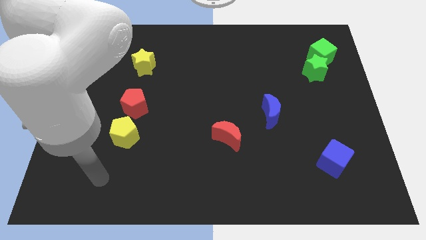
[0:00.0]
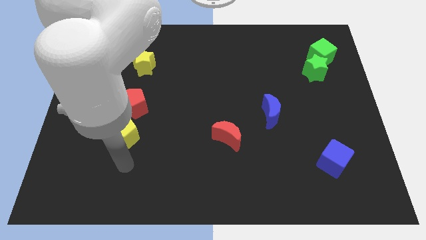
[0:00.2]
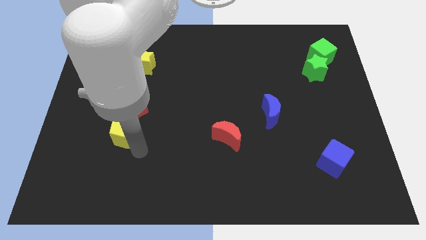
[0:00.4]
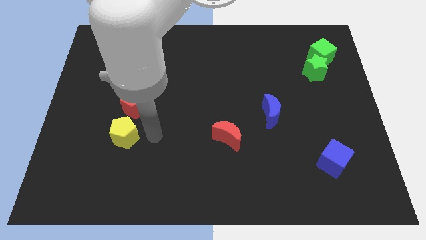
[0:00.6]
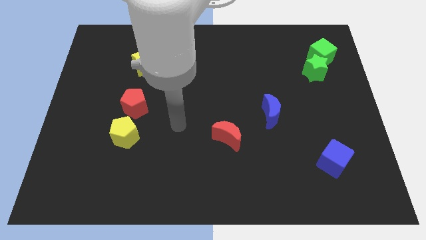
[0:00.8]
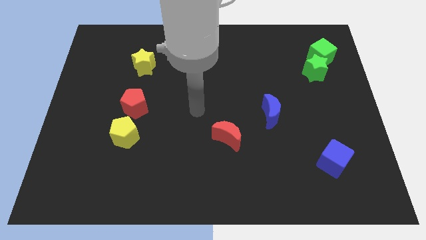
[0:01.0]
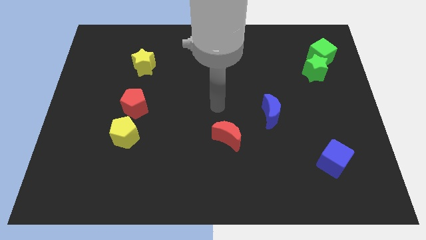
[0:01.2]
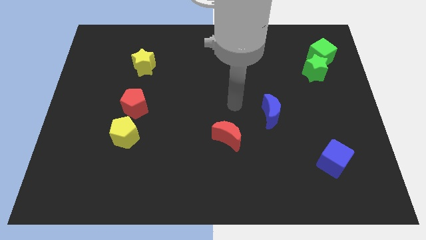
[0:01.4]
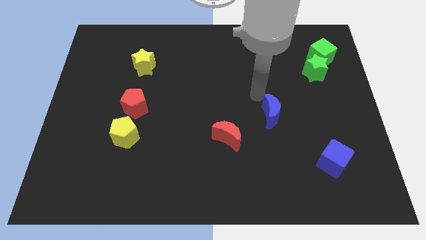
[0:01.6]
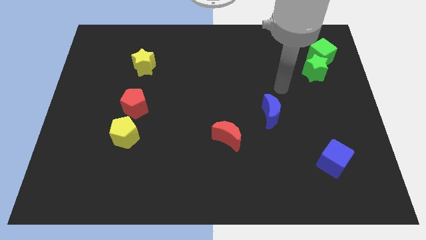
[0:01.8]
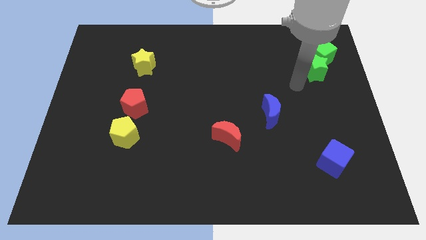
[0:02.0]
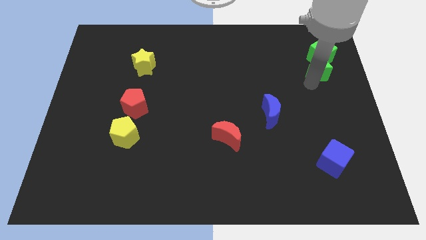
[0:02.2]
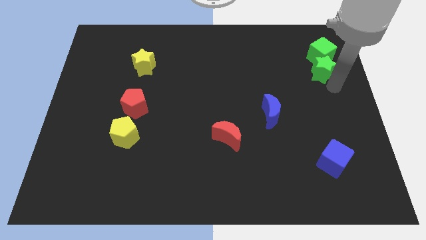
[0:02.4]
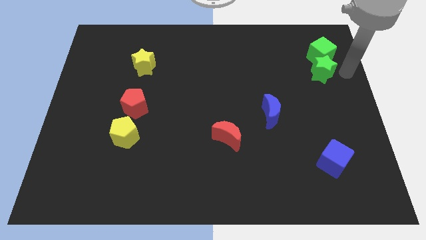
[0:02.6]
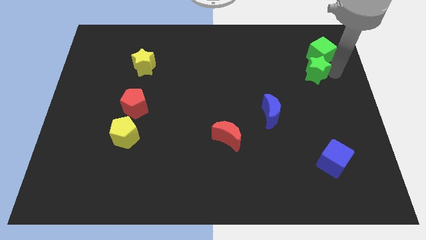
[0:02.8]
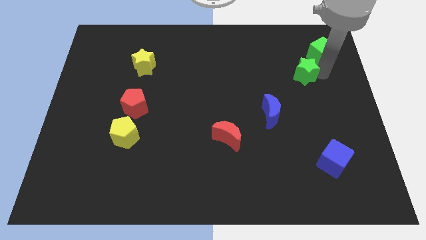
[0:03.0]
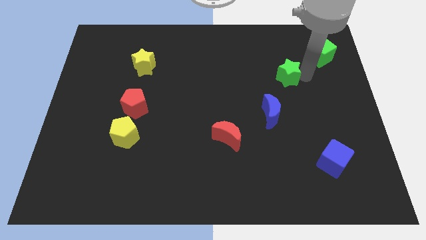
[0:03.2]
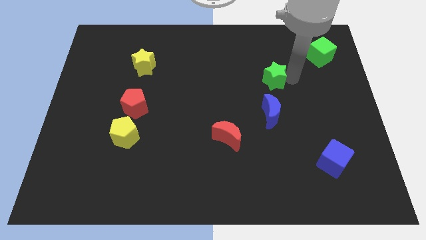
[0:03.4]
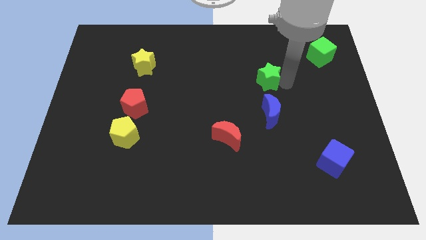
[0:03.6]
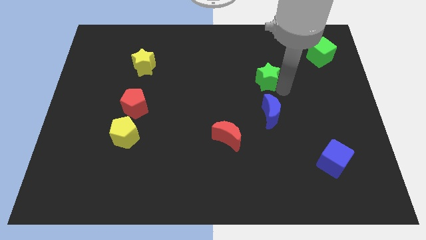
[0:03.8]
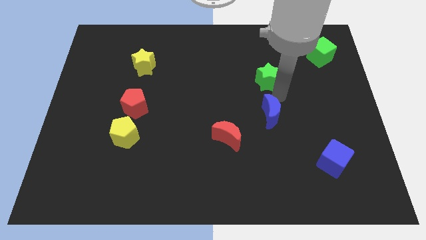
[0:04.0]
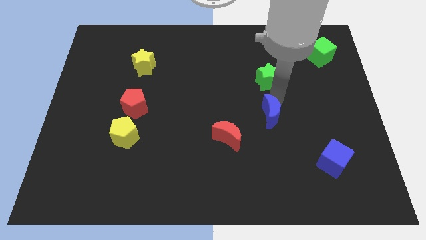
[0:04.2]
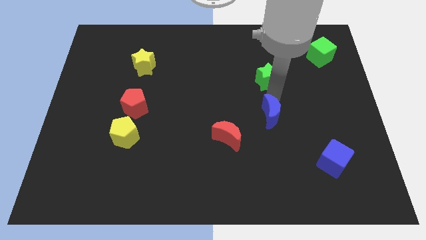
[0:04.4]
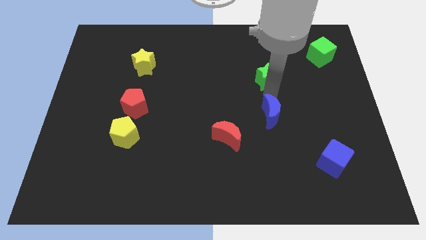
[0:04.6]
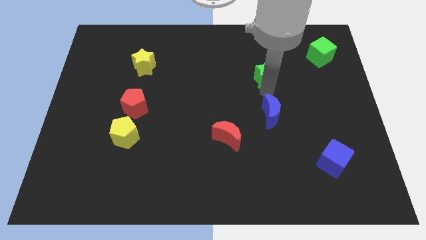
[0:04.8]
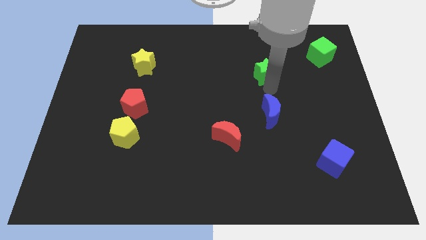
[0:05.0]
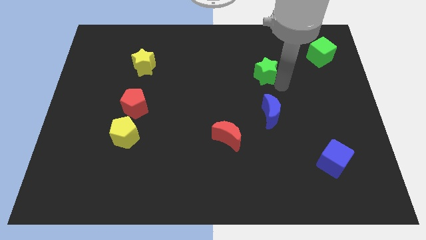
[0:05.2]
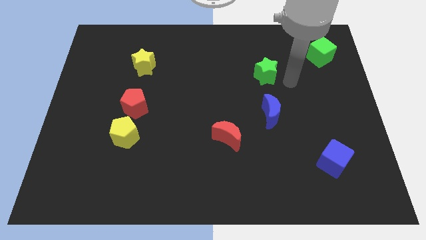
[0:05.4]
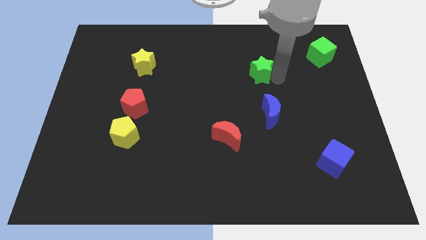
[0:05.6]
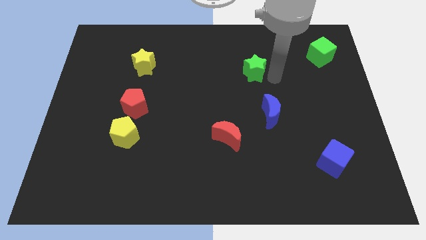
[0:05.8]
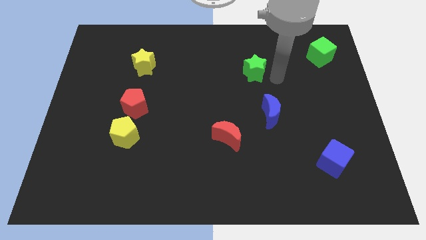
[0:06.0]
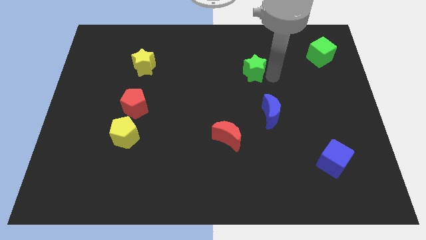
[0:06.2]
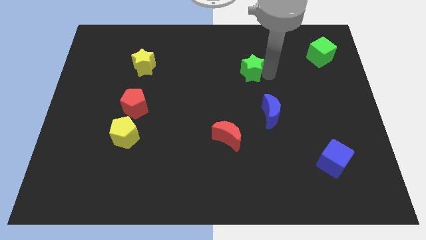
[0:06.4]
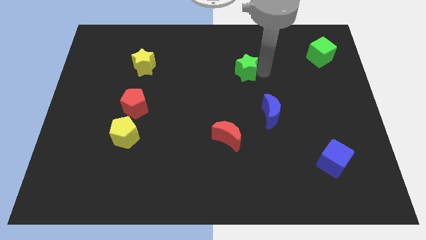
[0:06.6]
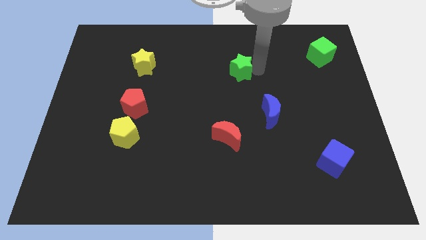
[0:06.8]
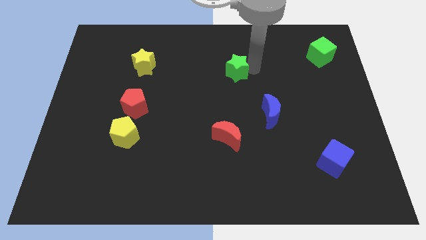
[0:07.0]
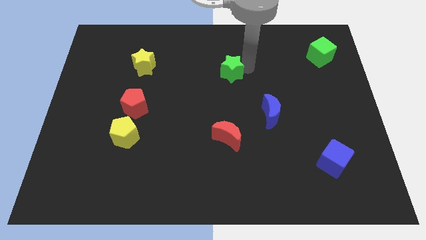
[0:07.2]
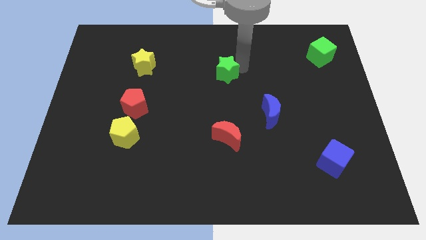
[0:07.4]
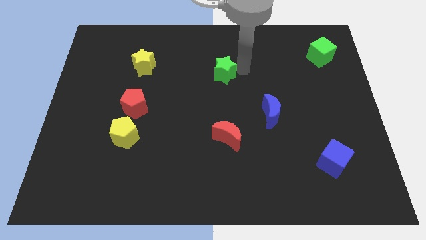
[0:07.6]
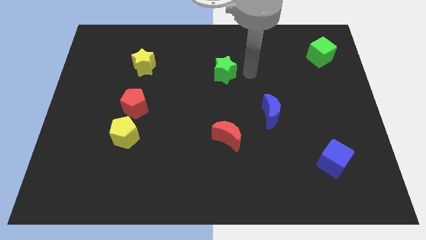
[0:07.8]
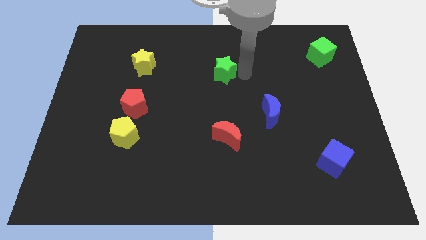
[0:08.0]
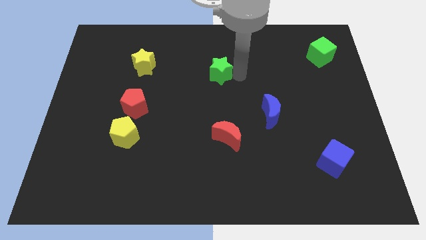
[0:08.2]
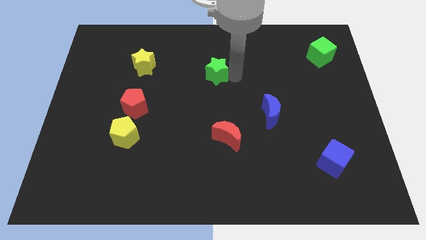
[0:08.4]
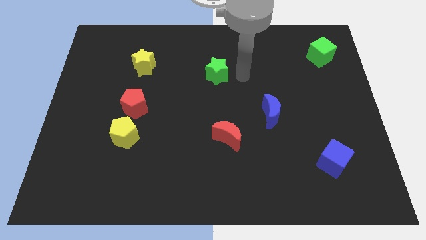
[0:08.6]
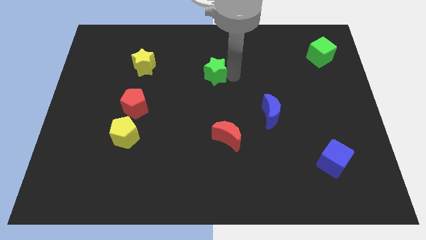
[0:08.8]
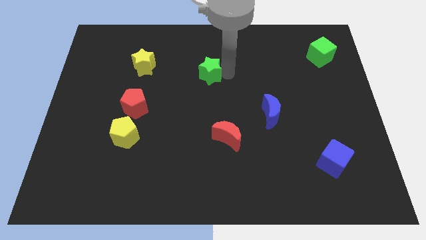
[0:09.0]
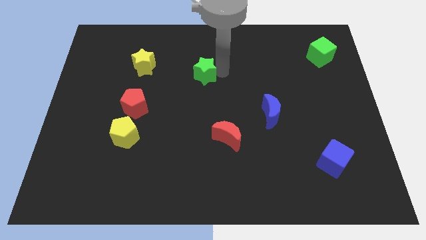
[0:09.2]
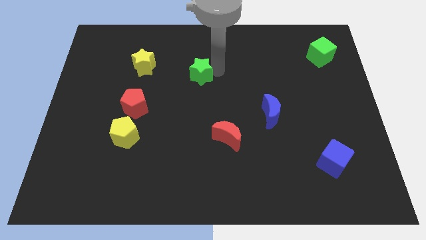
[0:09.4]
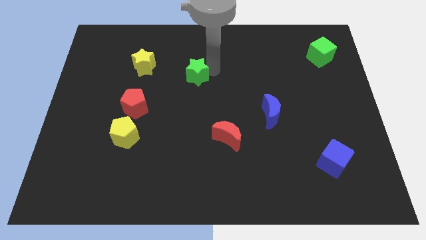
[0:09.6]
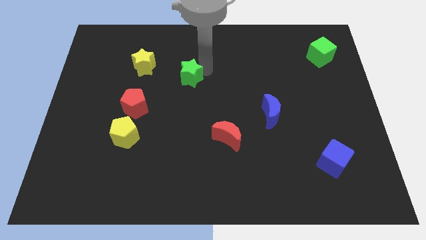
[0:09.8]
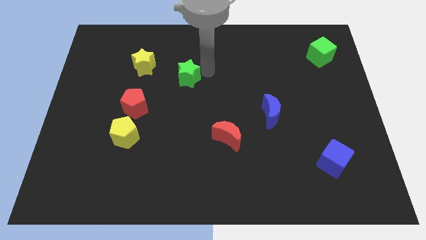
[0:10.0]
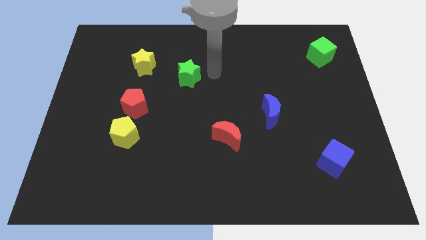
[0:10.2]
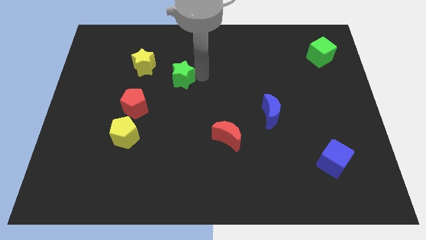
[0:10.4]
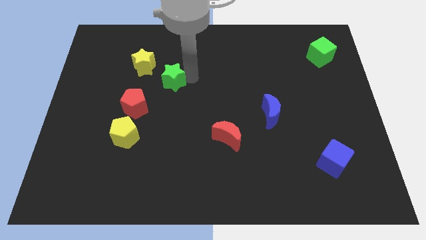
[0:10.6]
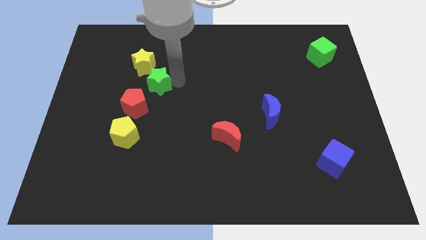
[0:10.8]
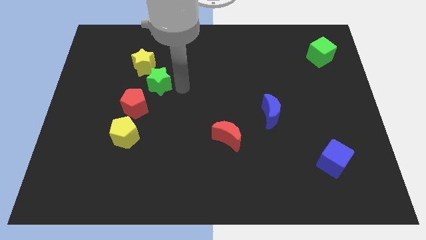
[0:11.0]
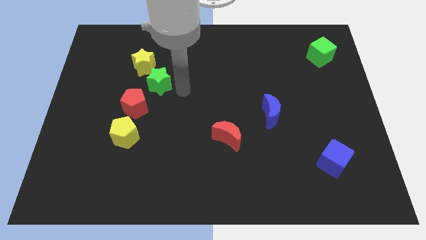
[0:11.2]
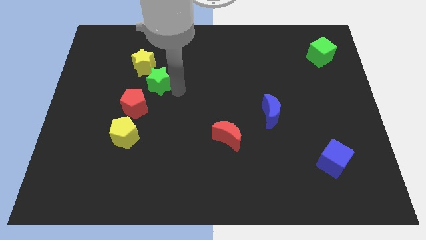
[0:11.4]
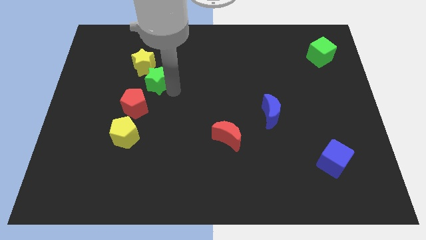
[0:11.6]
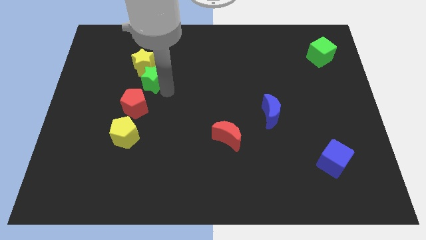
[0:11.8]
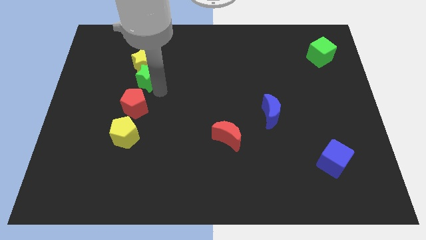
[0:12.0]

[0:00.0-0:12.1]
slide the green star to the bottom left of the yellow star
